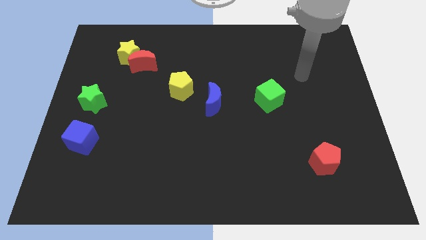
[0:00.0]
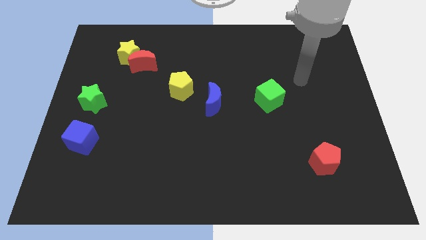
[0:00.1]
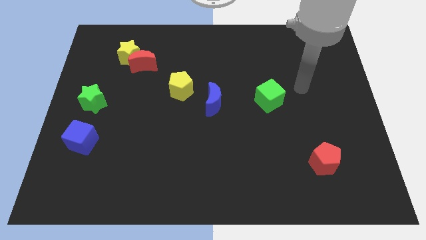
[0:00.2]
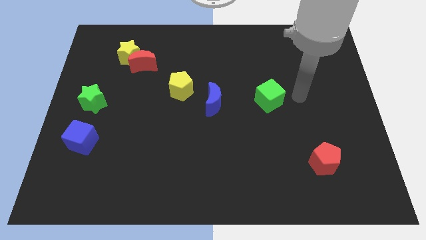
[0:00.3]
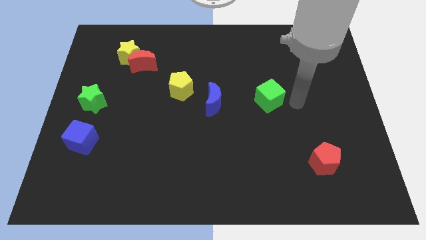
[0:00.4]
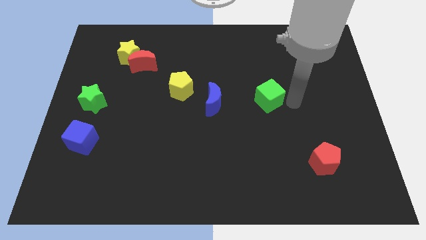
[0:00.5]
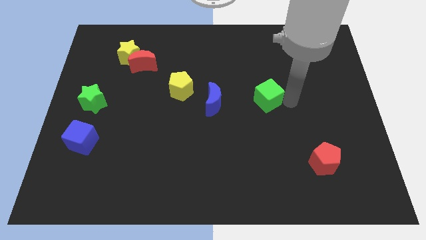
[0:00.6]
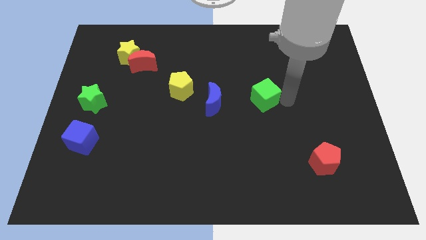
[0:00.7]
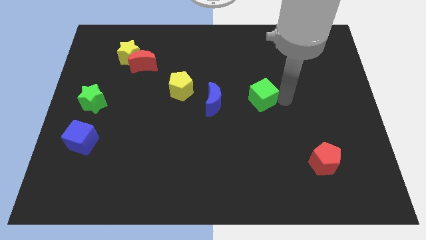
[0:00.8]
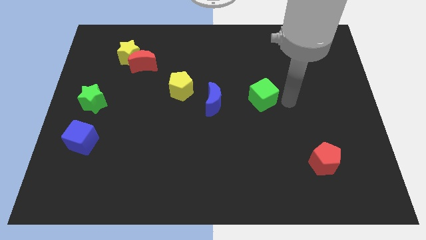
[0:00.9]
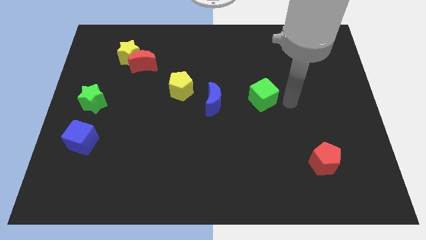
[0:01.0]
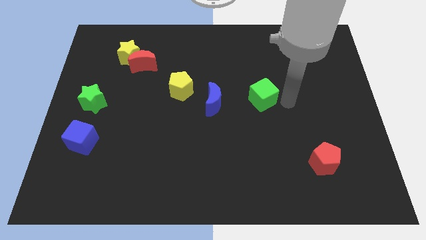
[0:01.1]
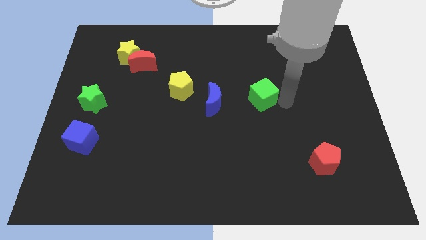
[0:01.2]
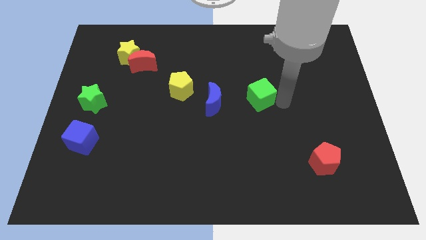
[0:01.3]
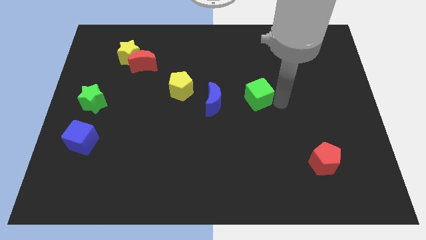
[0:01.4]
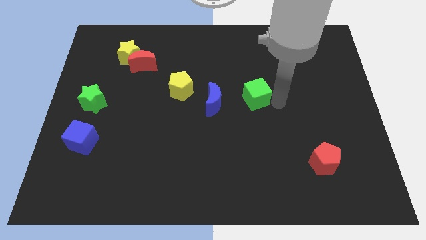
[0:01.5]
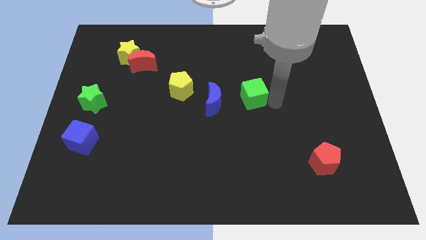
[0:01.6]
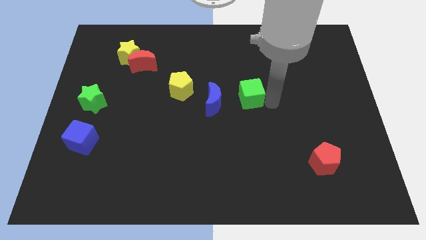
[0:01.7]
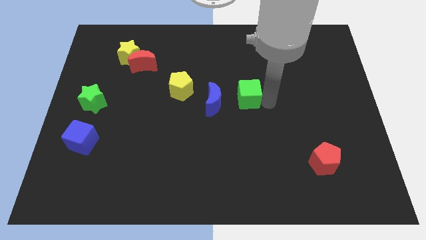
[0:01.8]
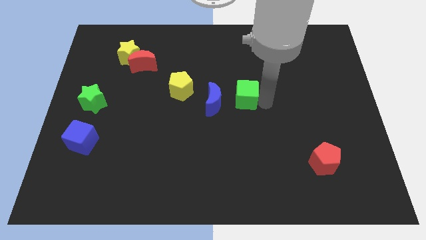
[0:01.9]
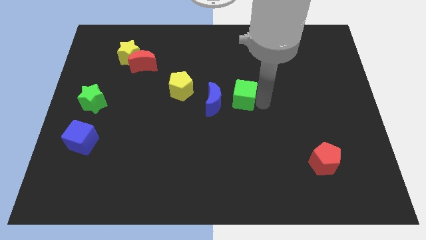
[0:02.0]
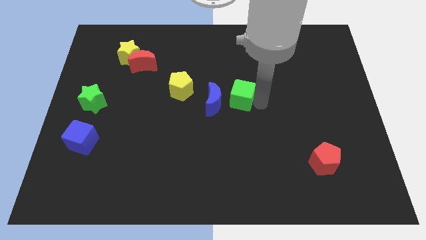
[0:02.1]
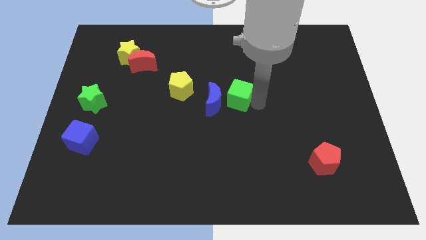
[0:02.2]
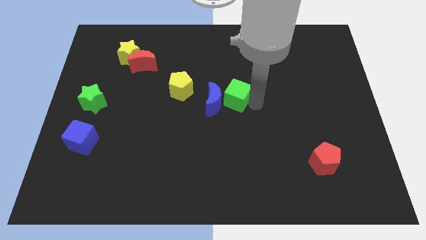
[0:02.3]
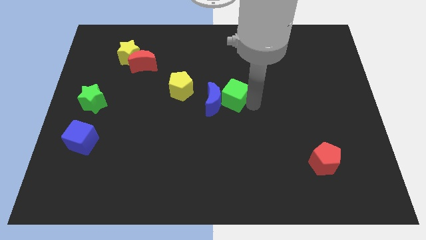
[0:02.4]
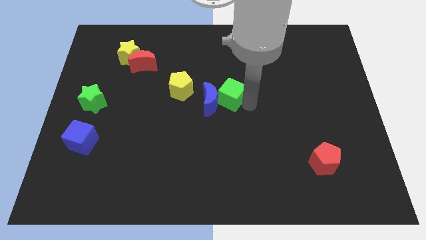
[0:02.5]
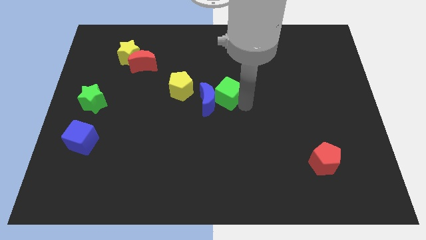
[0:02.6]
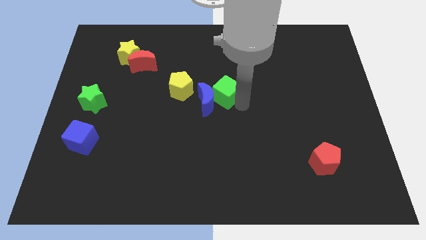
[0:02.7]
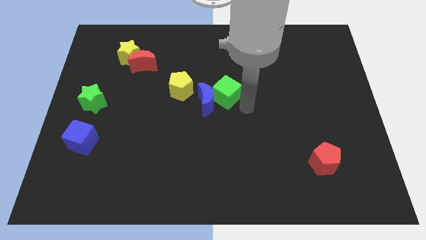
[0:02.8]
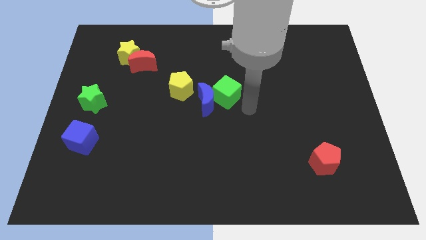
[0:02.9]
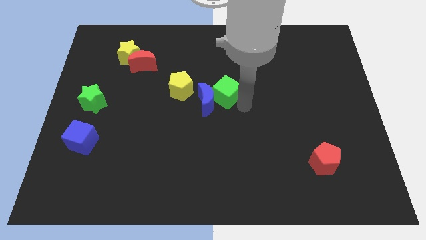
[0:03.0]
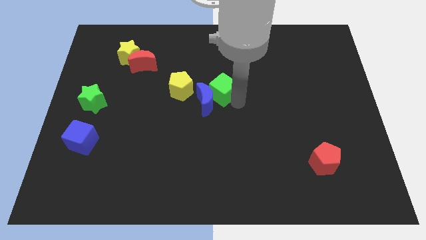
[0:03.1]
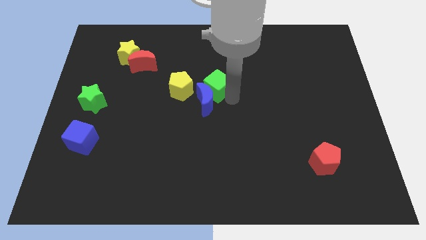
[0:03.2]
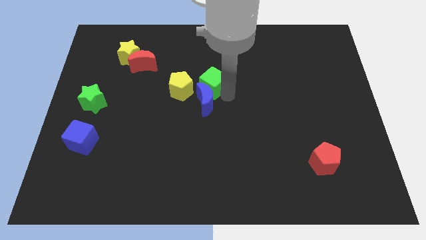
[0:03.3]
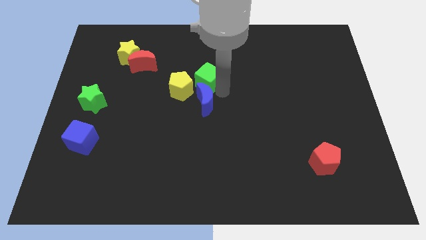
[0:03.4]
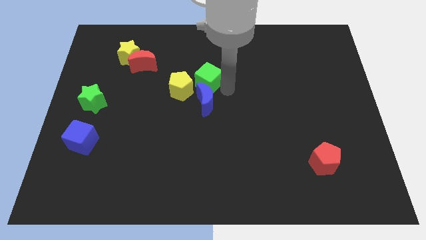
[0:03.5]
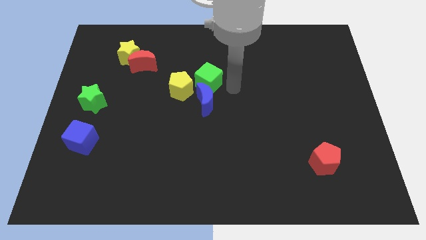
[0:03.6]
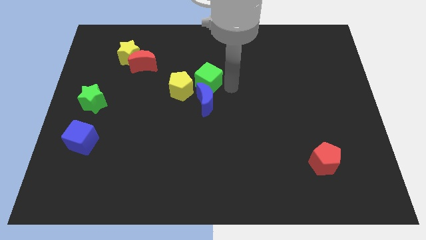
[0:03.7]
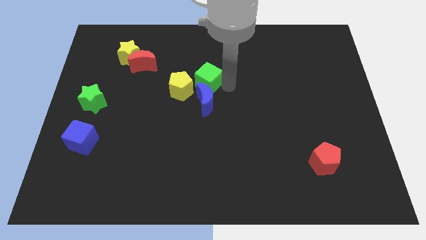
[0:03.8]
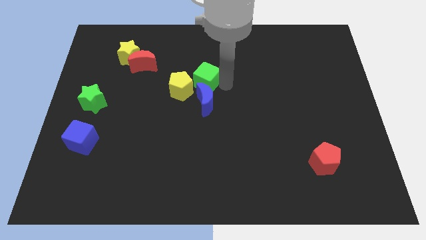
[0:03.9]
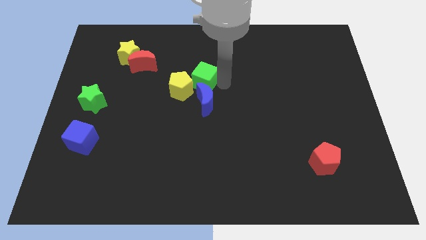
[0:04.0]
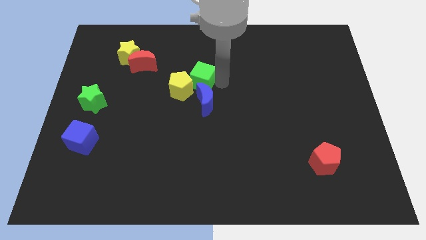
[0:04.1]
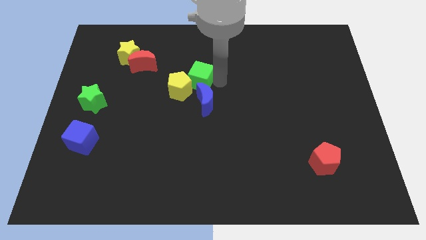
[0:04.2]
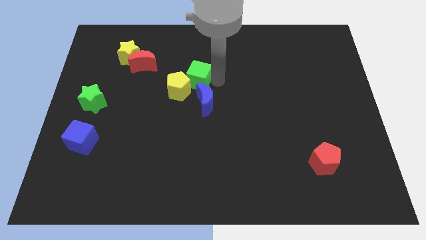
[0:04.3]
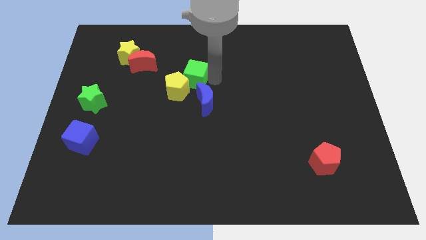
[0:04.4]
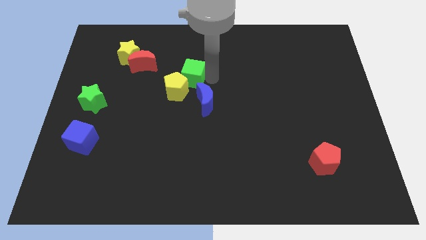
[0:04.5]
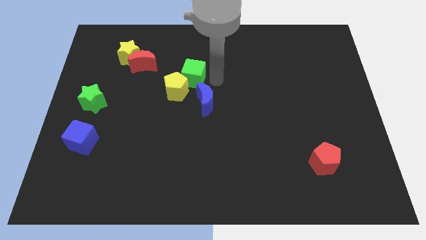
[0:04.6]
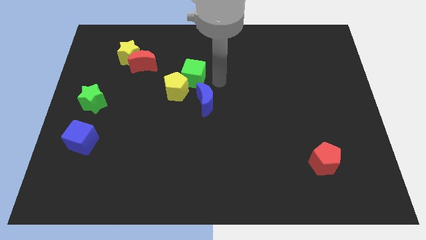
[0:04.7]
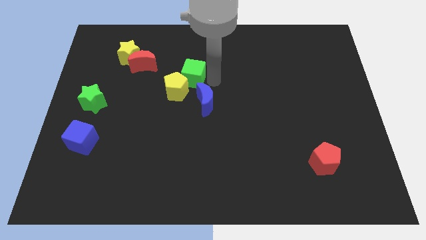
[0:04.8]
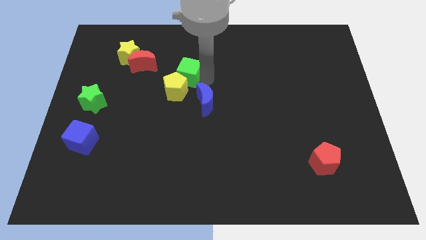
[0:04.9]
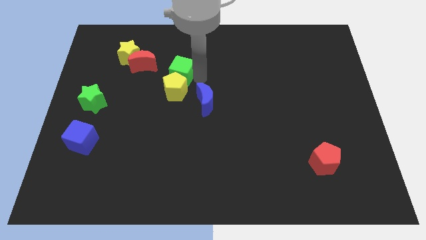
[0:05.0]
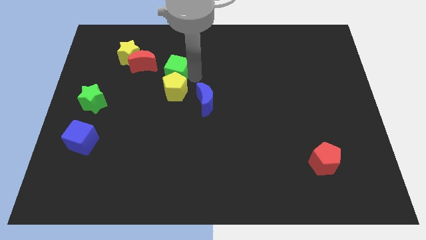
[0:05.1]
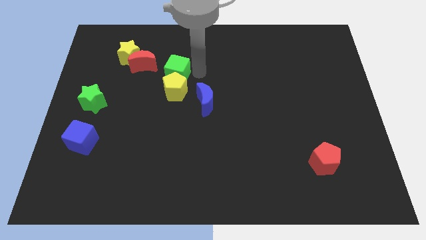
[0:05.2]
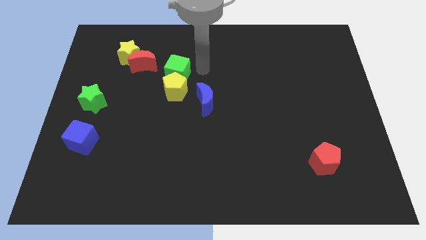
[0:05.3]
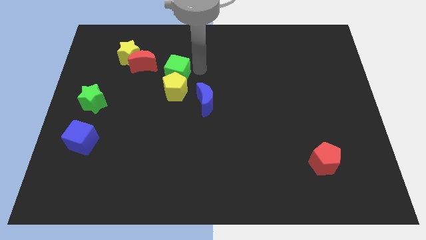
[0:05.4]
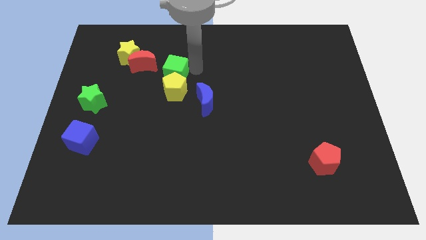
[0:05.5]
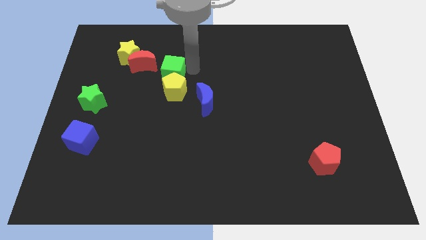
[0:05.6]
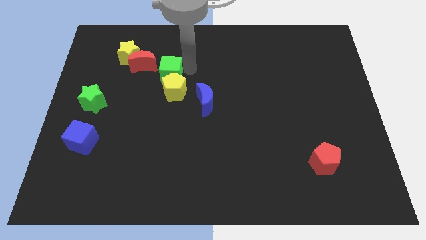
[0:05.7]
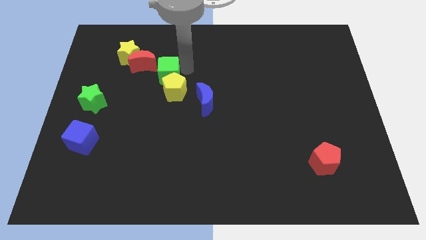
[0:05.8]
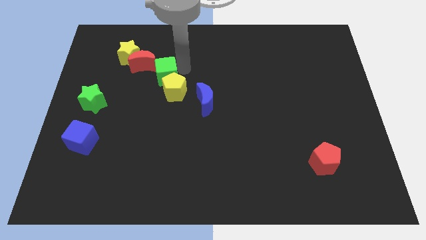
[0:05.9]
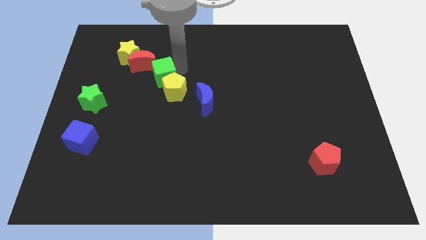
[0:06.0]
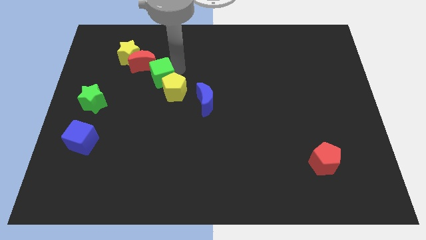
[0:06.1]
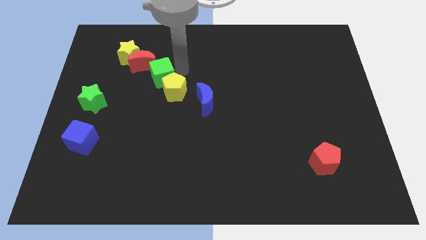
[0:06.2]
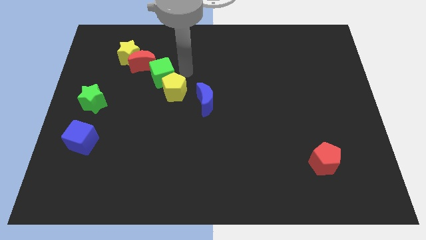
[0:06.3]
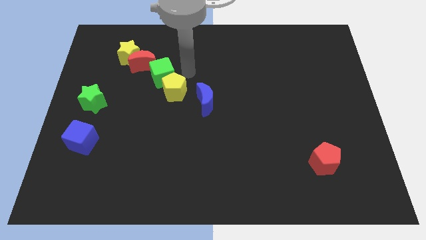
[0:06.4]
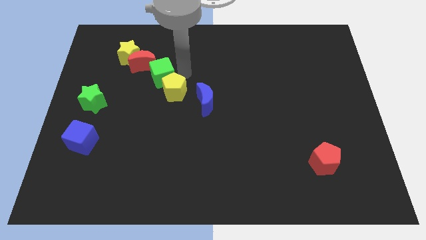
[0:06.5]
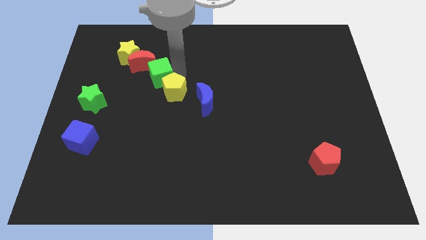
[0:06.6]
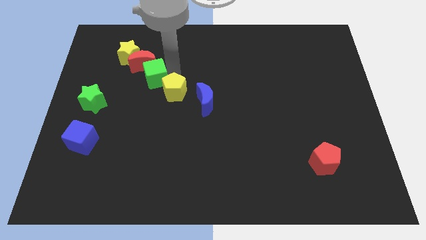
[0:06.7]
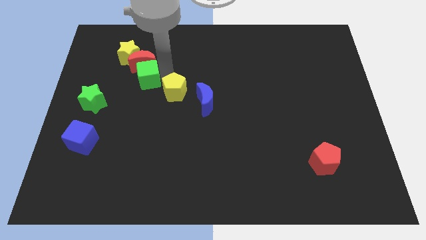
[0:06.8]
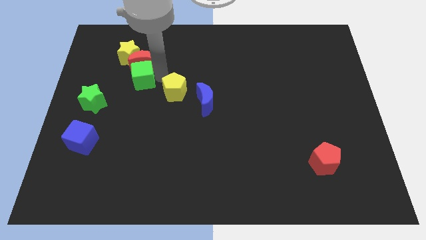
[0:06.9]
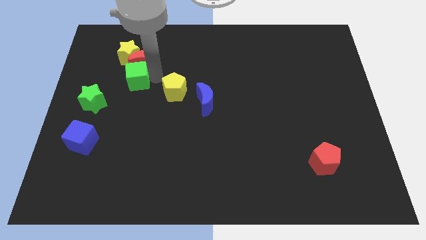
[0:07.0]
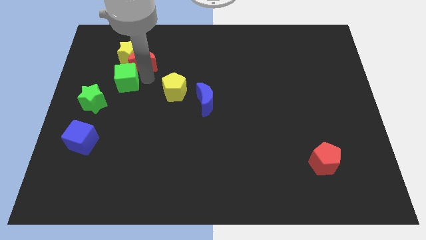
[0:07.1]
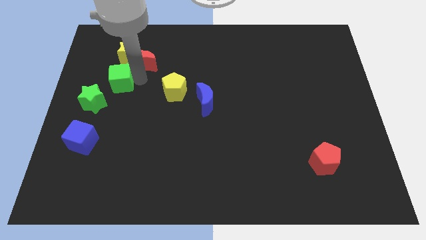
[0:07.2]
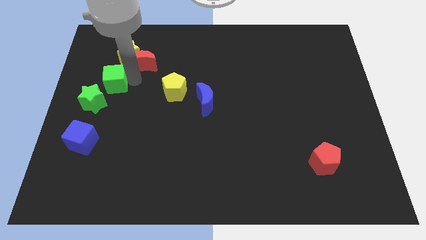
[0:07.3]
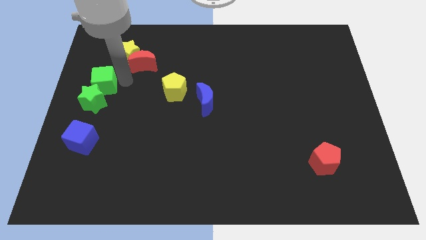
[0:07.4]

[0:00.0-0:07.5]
slide the green cube to the left side
